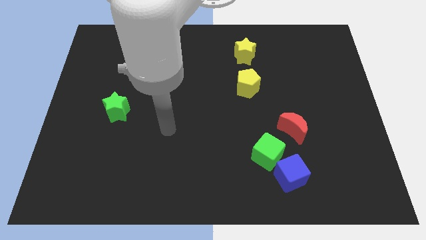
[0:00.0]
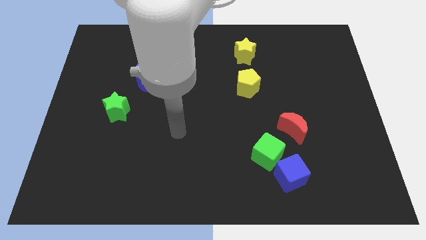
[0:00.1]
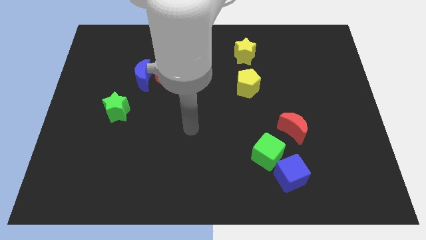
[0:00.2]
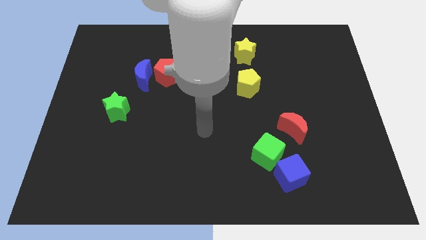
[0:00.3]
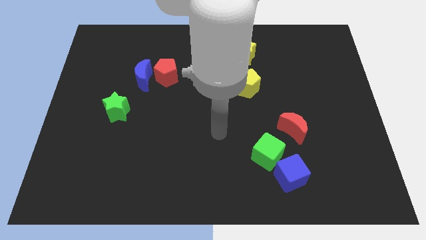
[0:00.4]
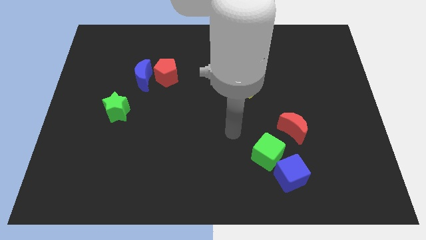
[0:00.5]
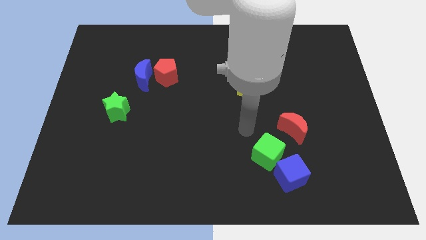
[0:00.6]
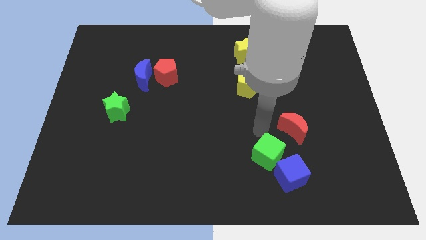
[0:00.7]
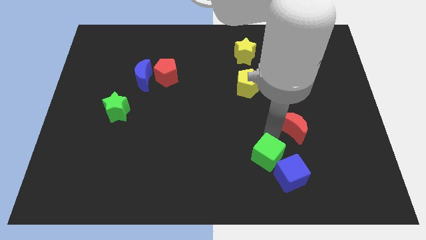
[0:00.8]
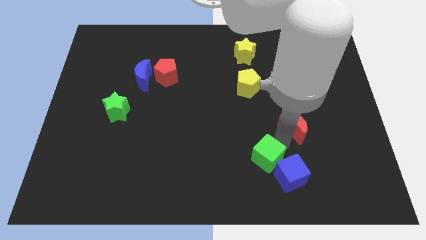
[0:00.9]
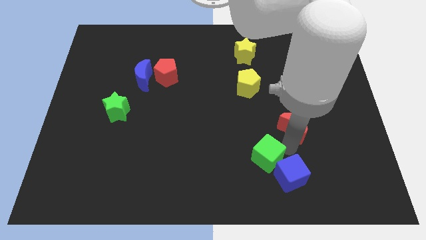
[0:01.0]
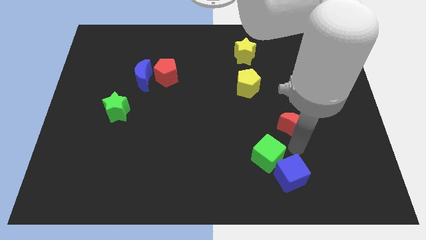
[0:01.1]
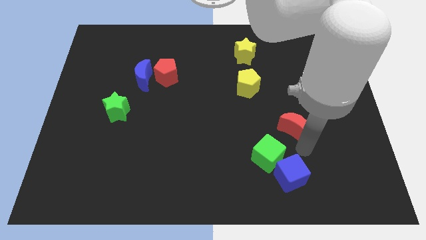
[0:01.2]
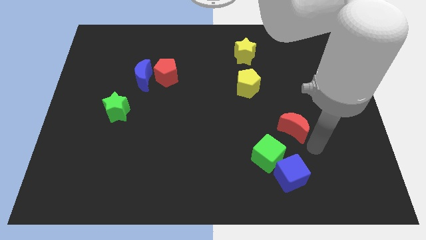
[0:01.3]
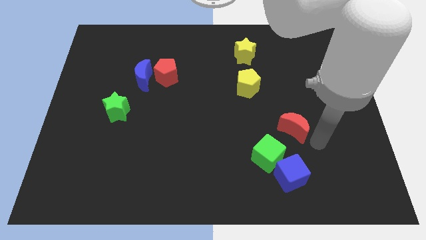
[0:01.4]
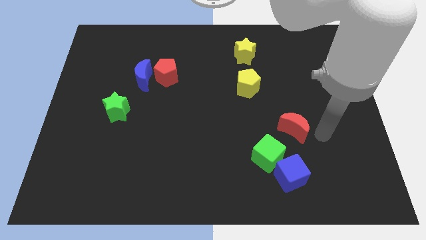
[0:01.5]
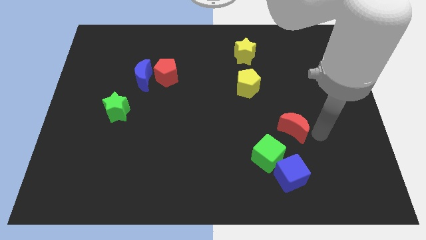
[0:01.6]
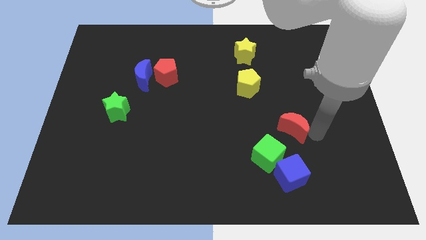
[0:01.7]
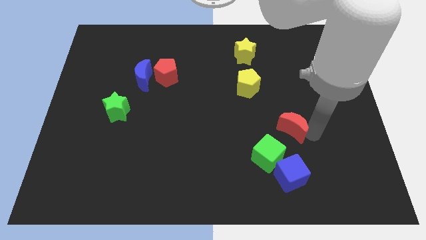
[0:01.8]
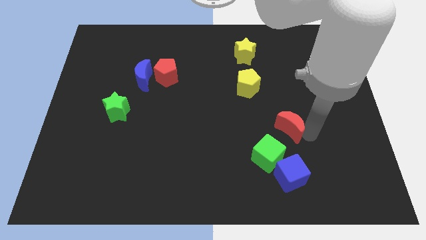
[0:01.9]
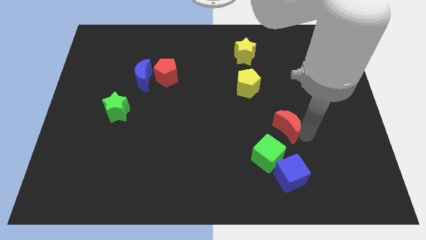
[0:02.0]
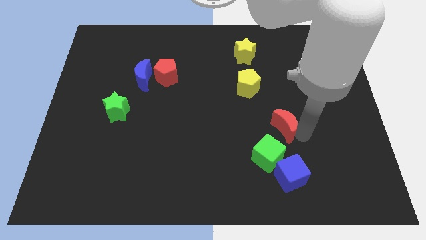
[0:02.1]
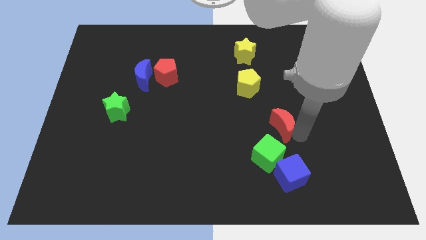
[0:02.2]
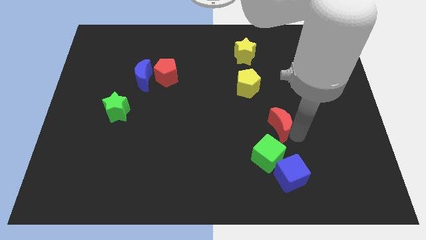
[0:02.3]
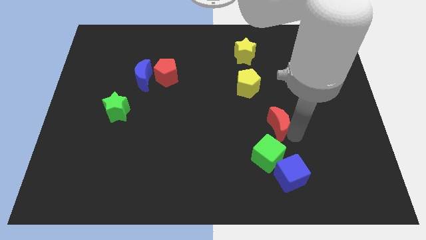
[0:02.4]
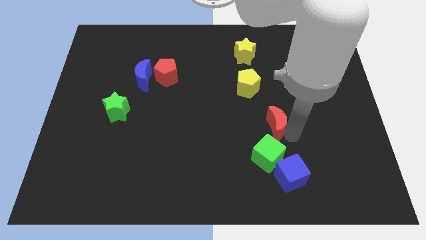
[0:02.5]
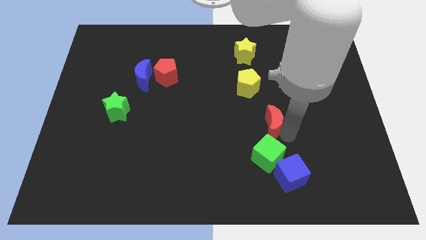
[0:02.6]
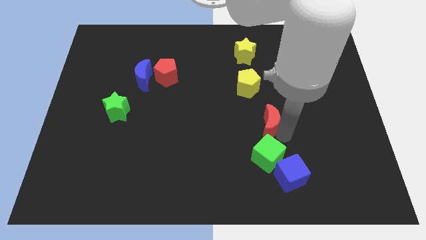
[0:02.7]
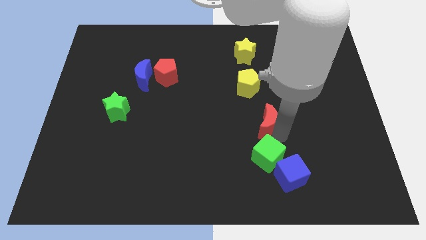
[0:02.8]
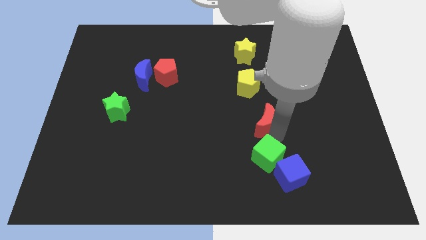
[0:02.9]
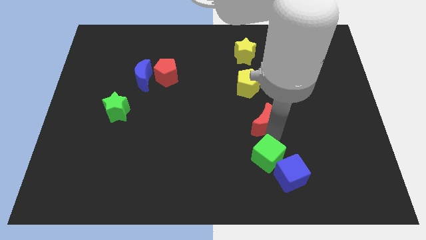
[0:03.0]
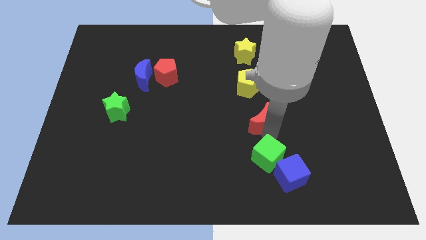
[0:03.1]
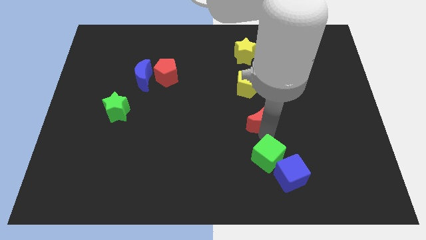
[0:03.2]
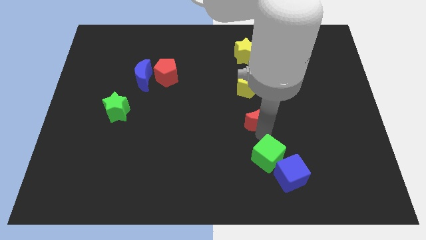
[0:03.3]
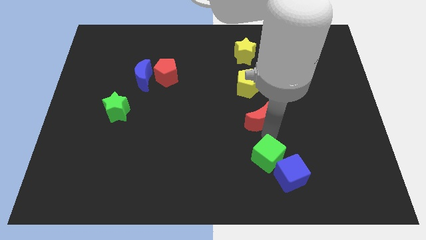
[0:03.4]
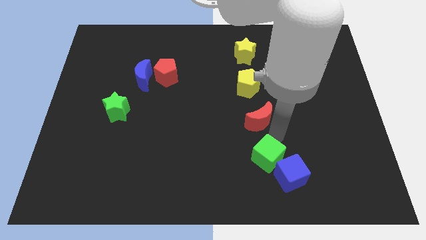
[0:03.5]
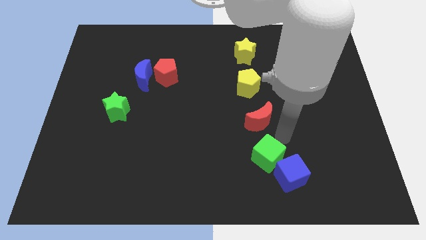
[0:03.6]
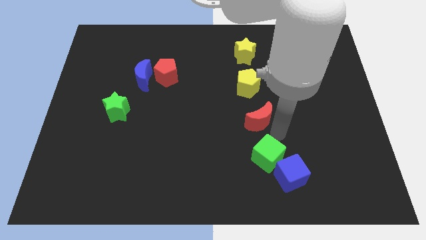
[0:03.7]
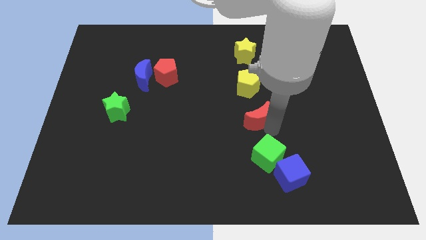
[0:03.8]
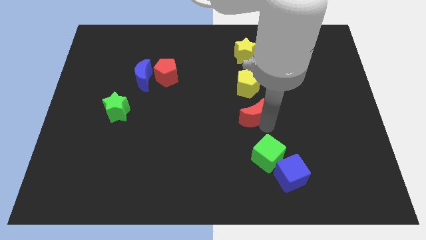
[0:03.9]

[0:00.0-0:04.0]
slightly push the red moon upwards and left diagonally

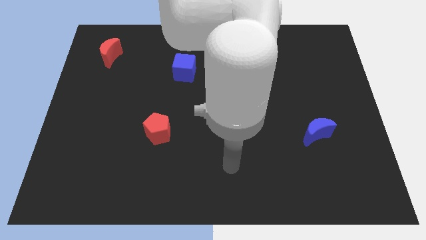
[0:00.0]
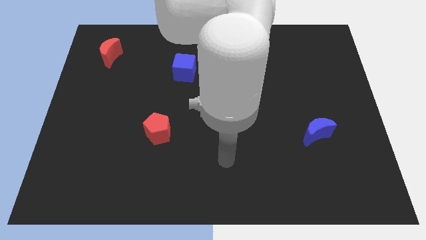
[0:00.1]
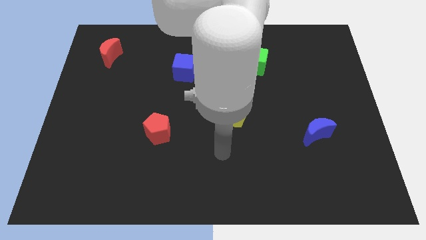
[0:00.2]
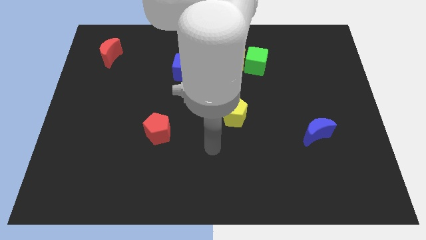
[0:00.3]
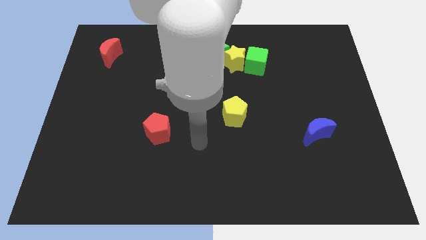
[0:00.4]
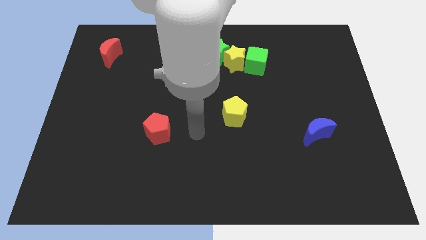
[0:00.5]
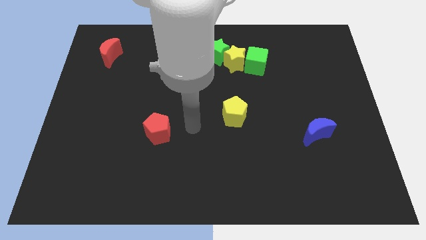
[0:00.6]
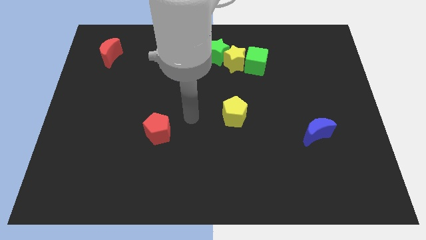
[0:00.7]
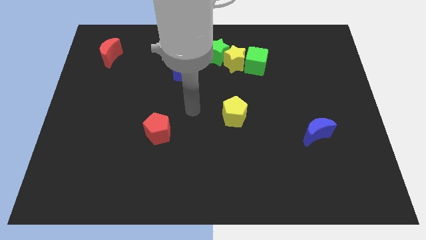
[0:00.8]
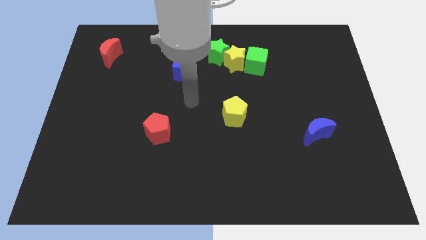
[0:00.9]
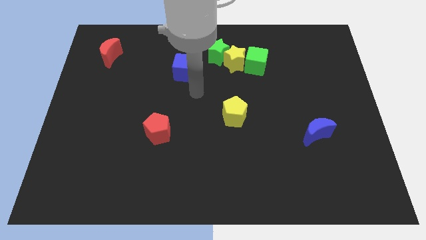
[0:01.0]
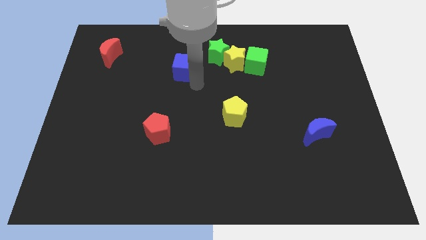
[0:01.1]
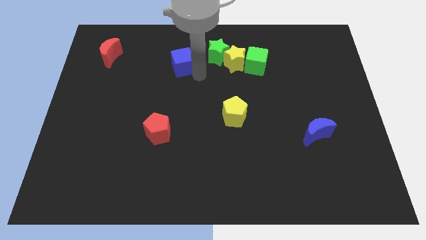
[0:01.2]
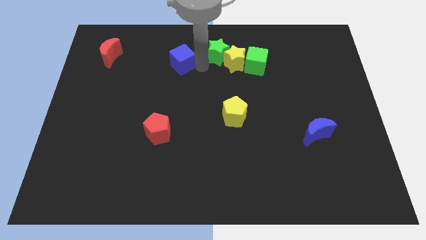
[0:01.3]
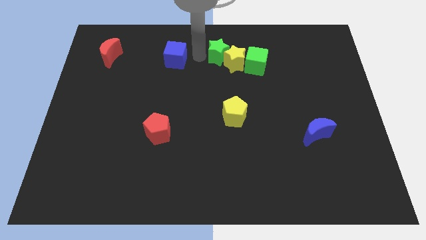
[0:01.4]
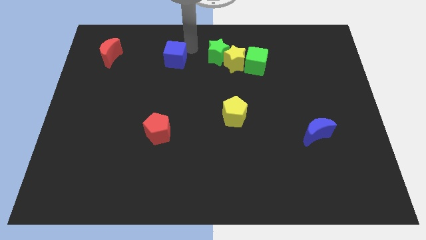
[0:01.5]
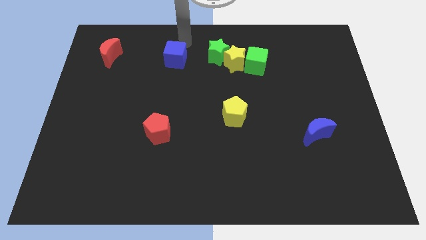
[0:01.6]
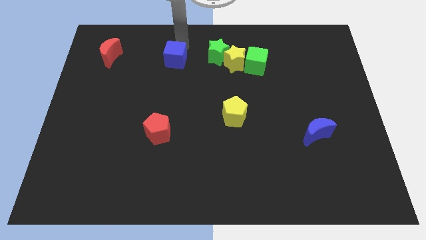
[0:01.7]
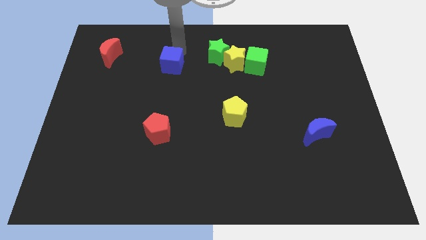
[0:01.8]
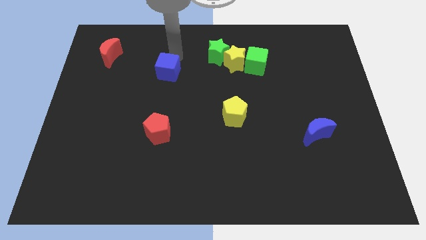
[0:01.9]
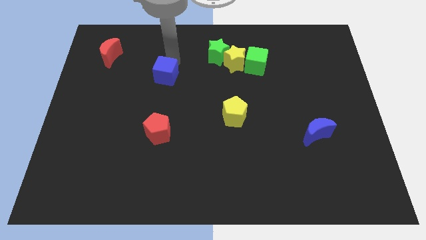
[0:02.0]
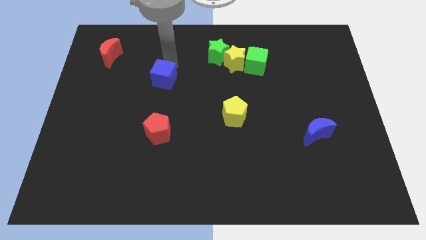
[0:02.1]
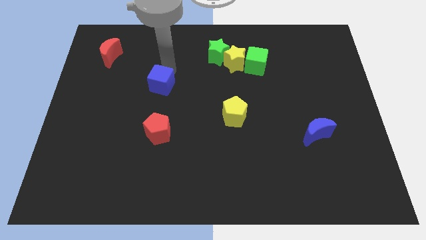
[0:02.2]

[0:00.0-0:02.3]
move the blue cube downwards and then left a little bit

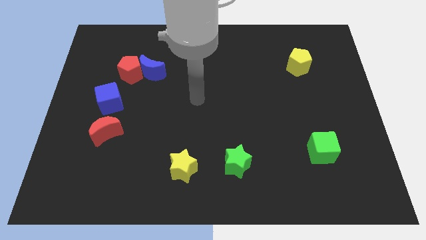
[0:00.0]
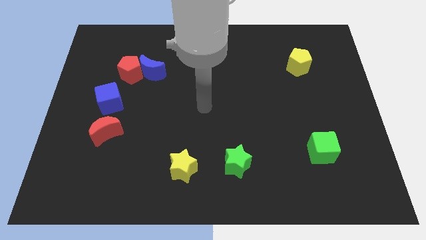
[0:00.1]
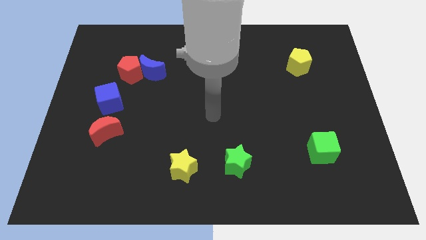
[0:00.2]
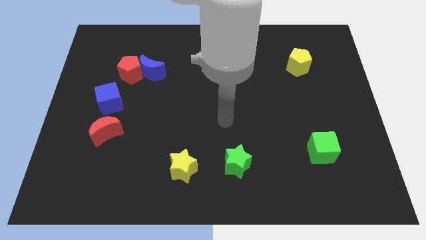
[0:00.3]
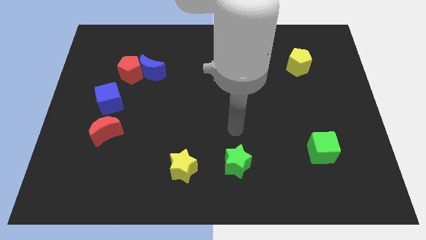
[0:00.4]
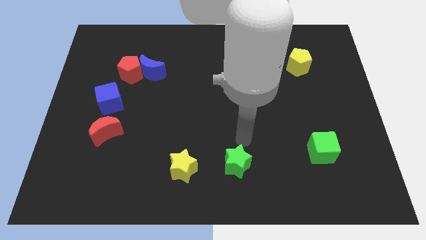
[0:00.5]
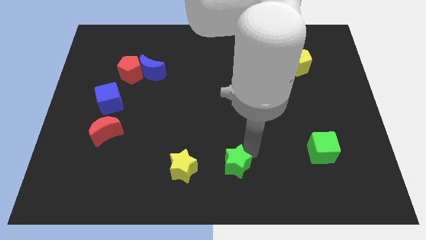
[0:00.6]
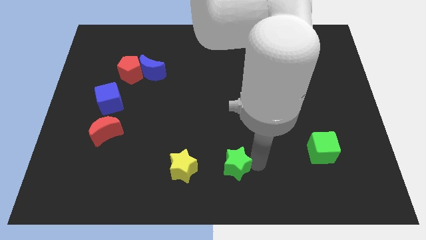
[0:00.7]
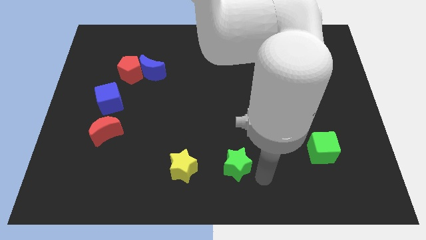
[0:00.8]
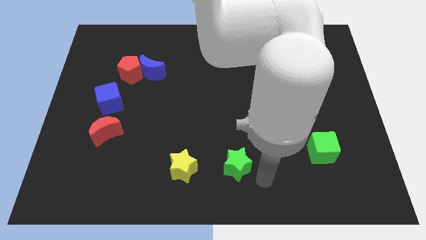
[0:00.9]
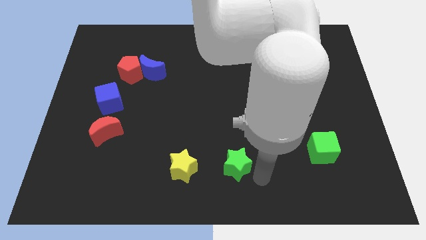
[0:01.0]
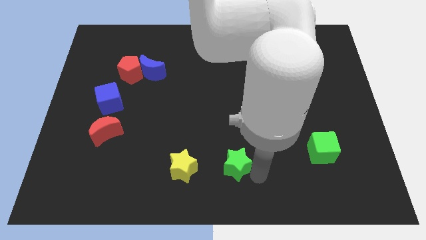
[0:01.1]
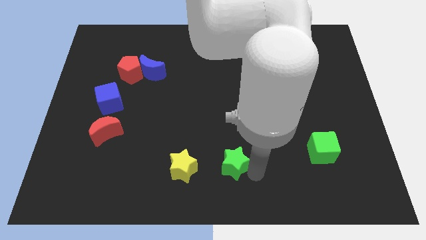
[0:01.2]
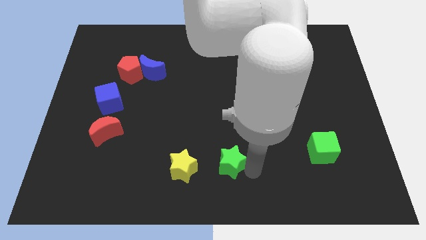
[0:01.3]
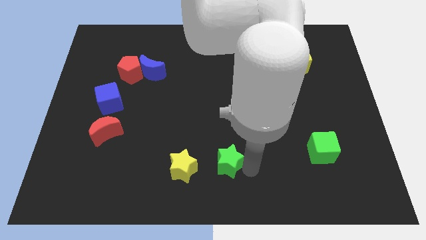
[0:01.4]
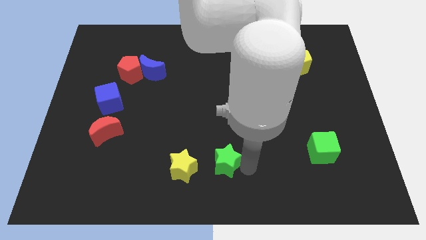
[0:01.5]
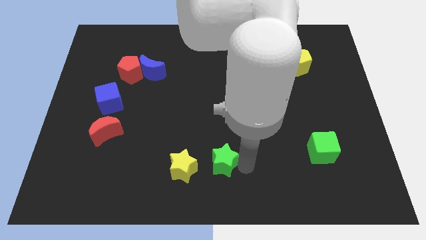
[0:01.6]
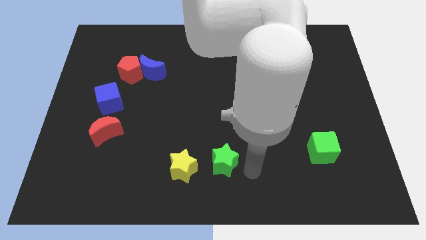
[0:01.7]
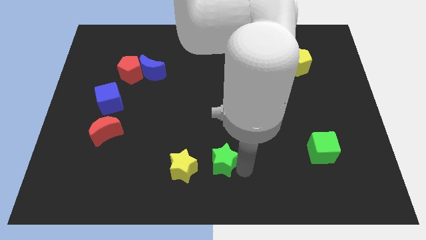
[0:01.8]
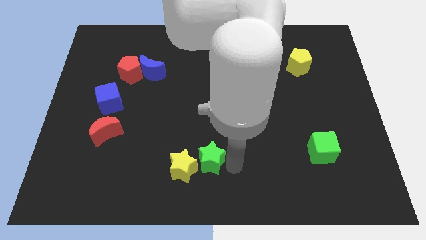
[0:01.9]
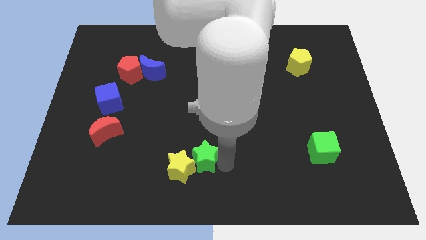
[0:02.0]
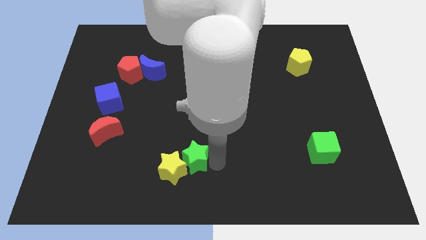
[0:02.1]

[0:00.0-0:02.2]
slightly push the green star to the left

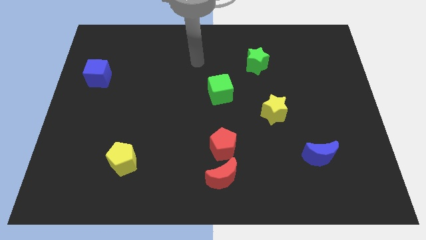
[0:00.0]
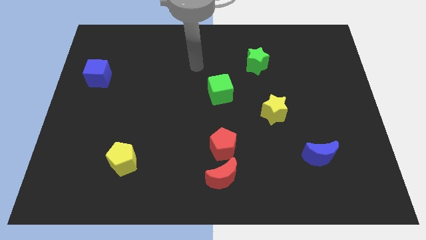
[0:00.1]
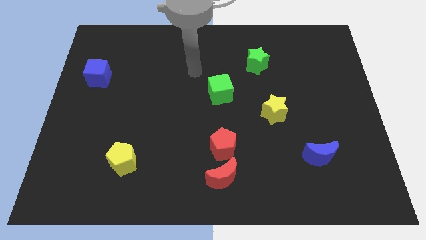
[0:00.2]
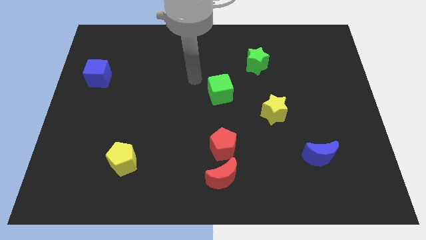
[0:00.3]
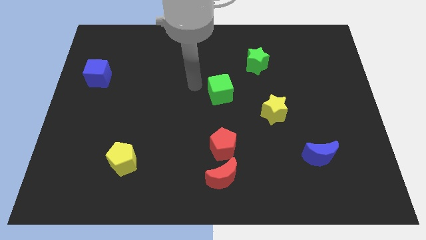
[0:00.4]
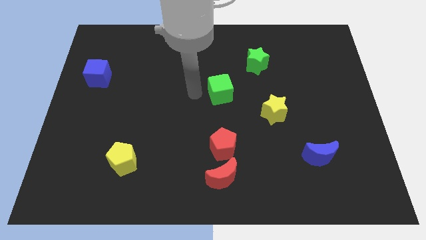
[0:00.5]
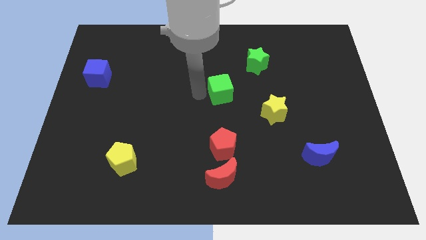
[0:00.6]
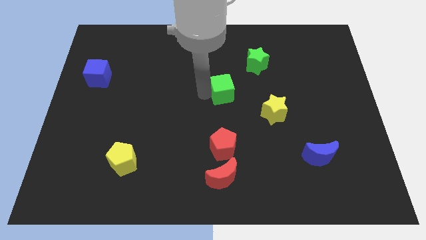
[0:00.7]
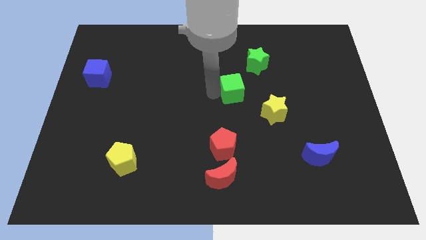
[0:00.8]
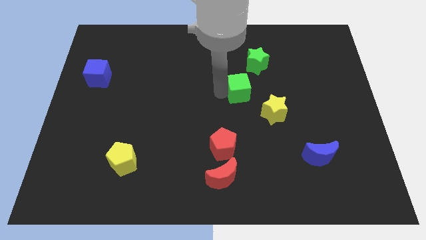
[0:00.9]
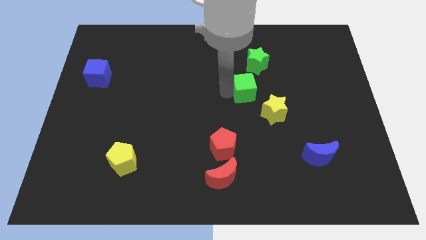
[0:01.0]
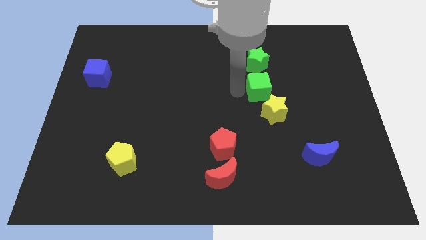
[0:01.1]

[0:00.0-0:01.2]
slightly move the green cube right
